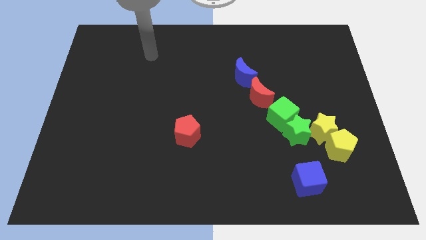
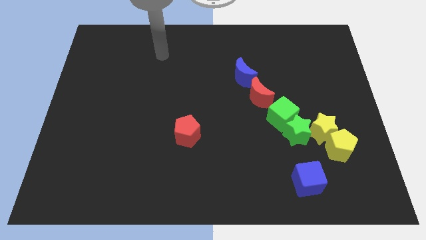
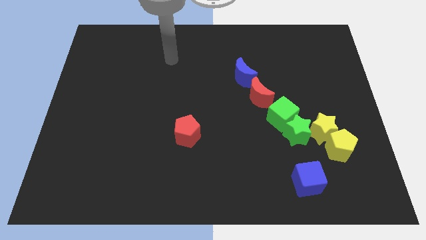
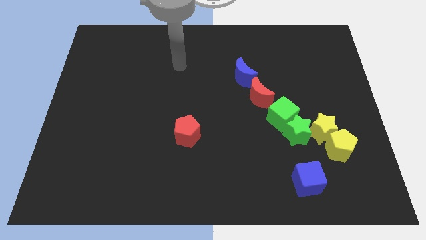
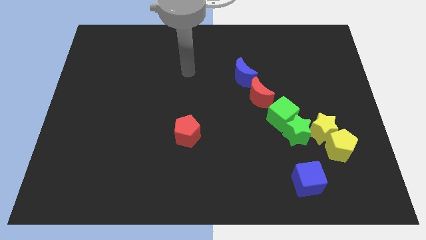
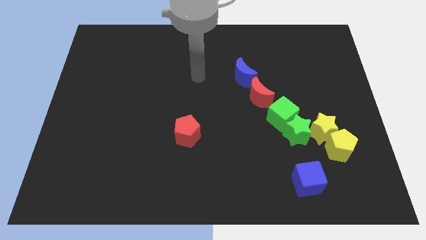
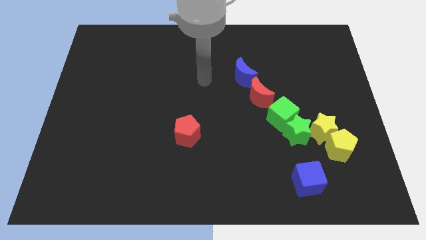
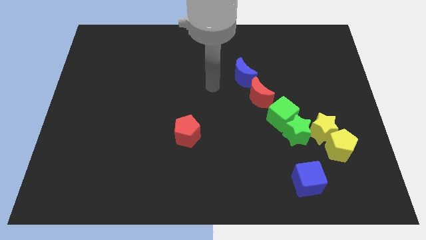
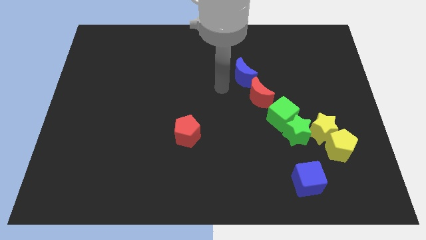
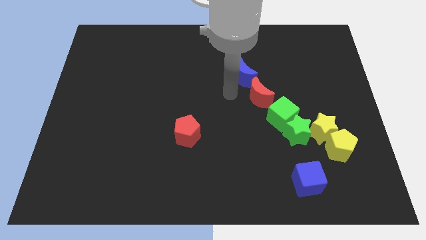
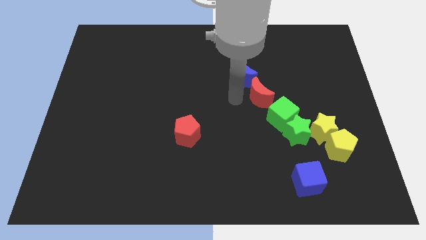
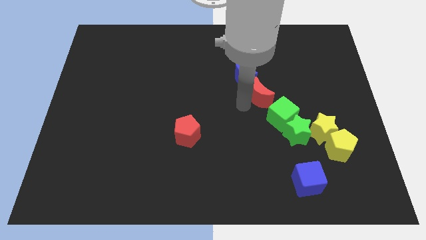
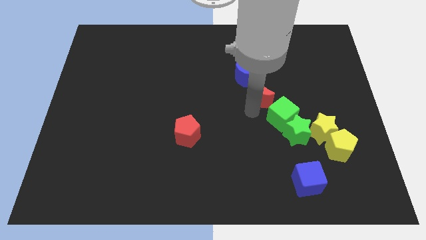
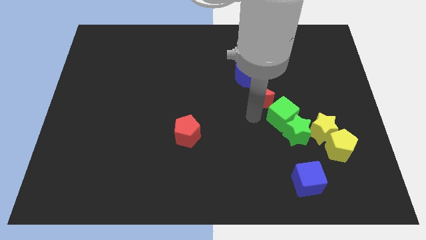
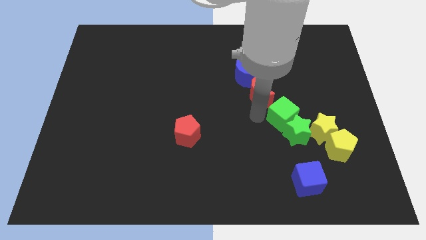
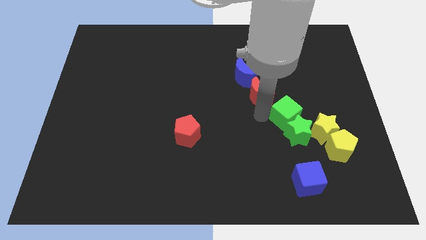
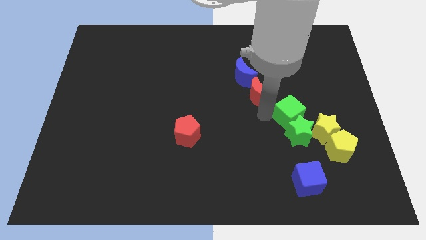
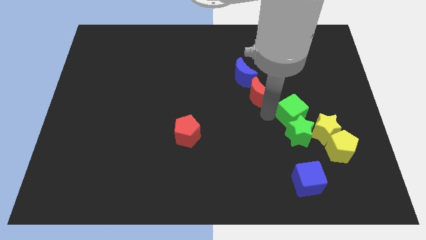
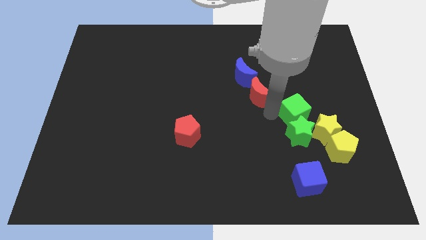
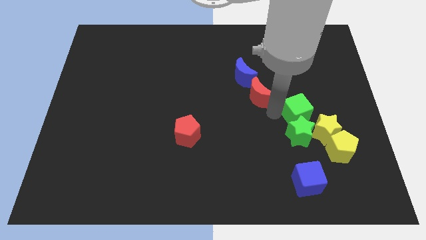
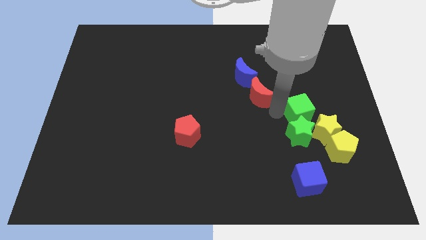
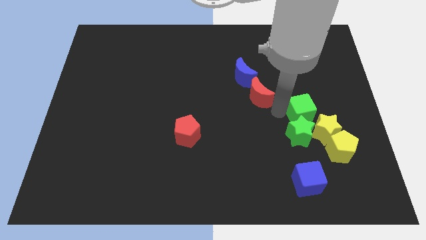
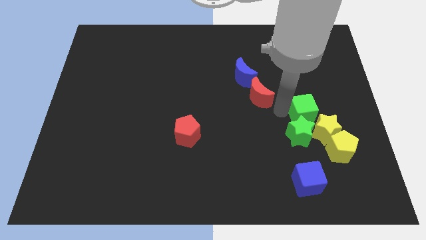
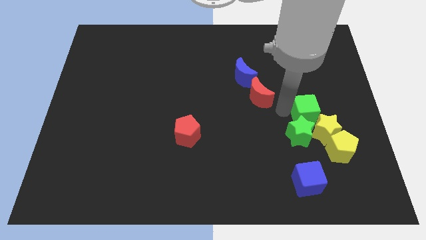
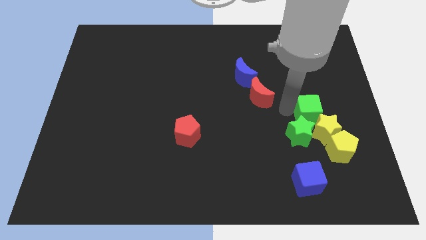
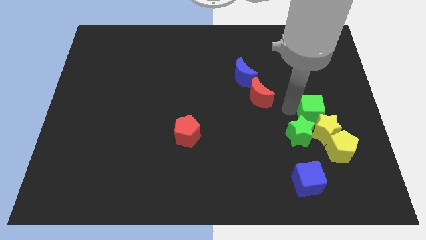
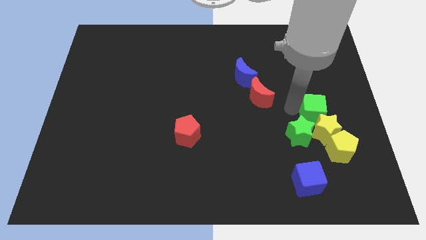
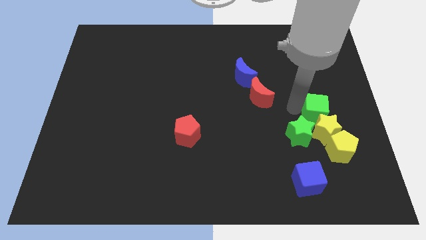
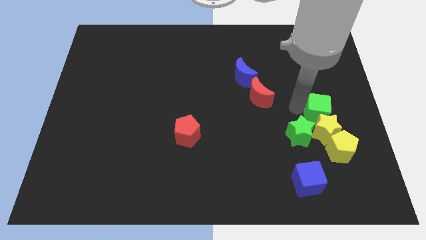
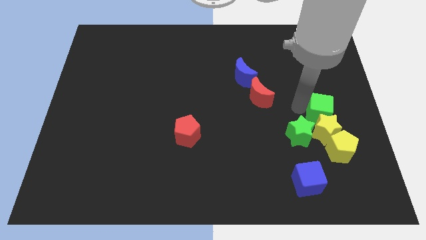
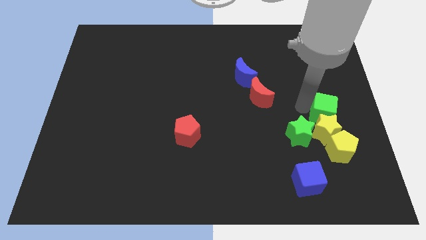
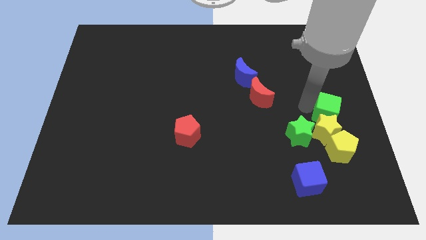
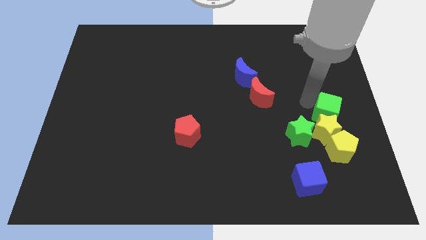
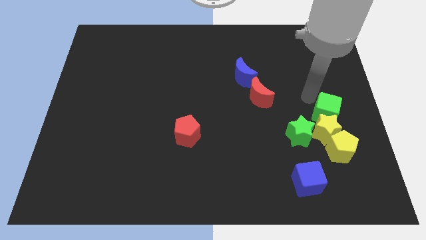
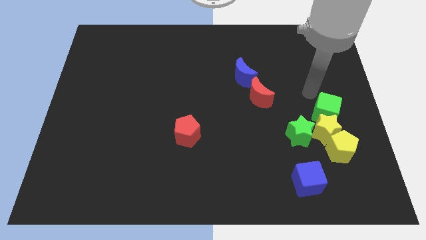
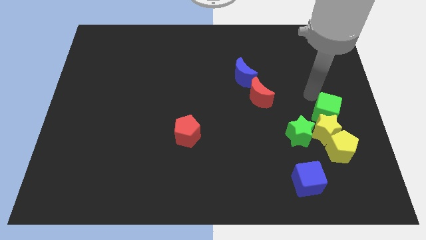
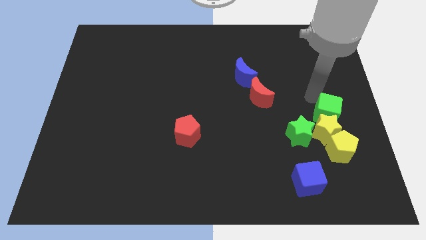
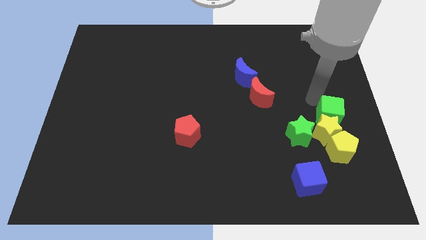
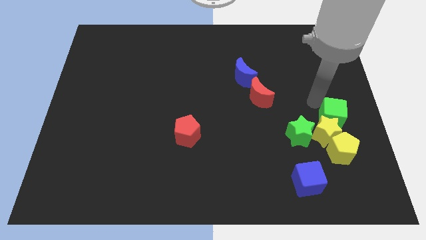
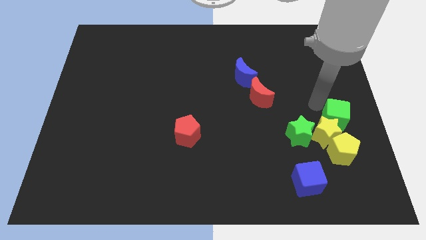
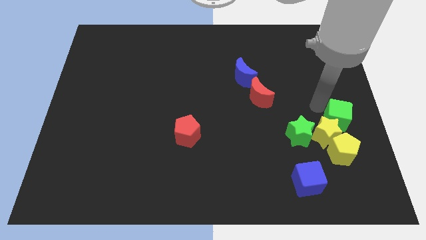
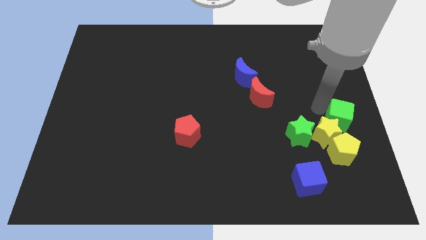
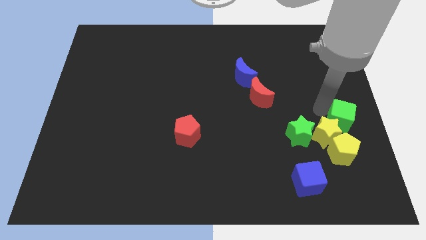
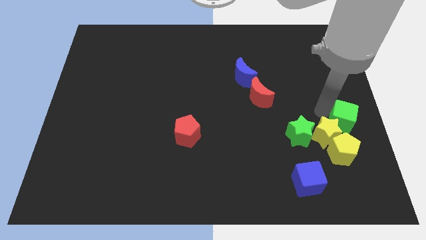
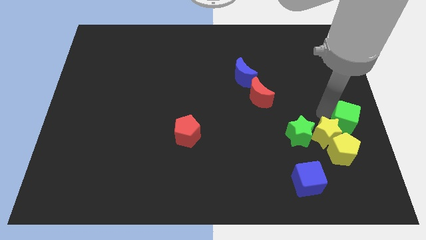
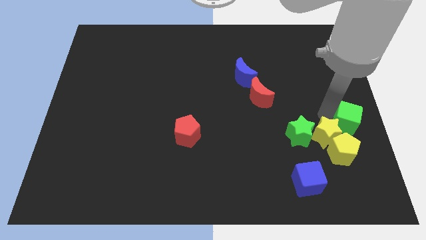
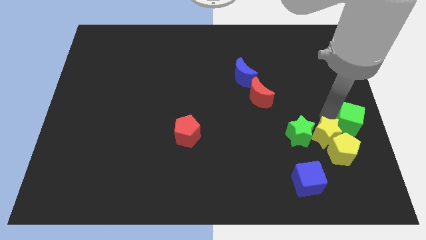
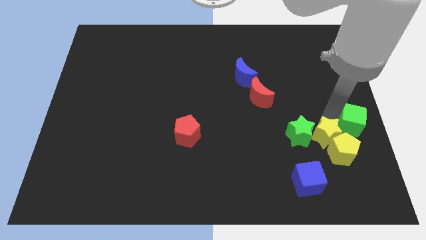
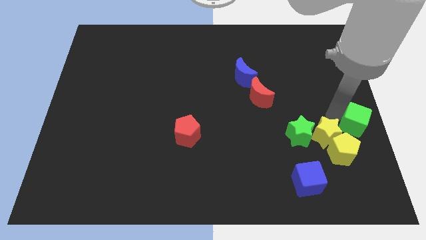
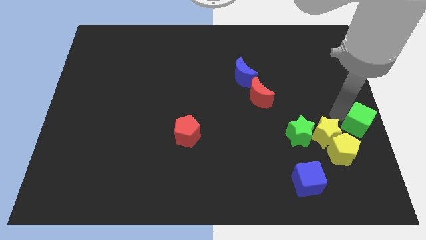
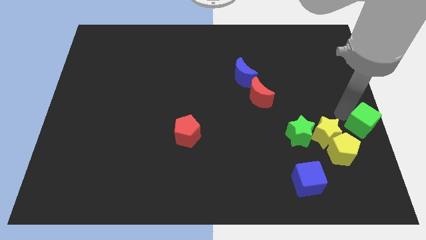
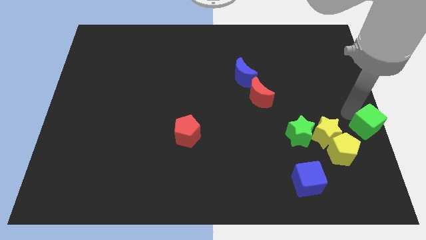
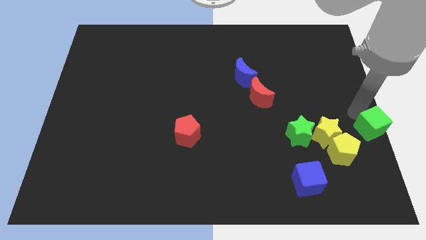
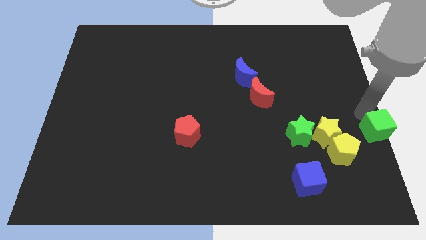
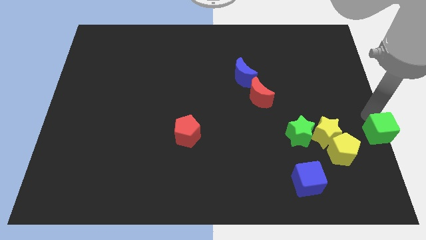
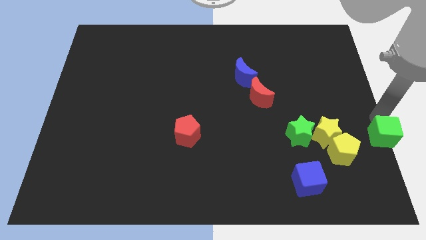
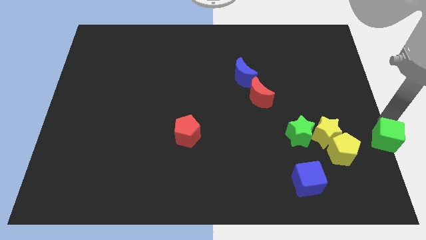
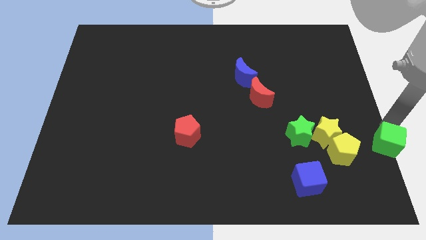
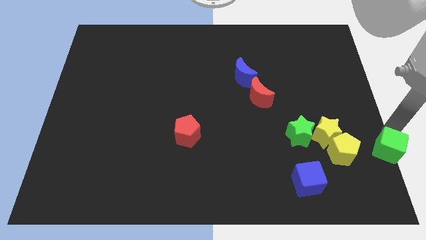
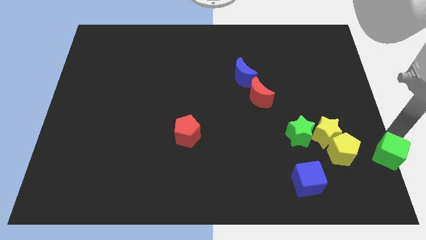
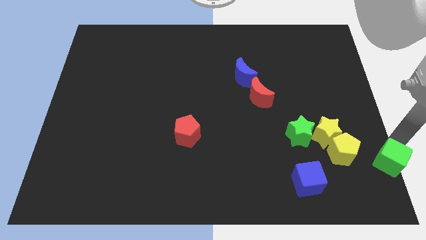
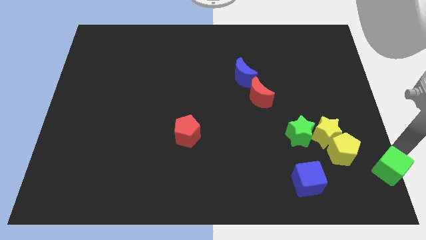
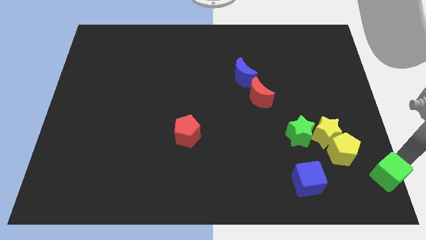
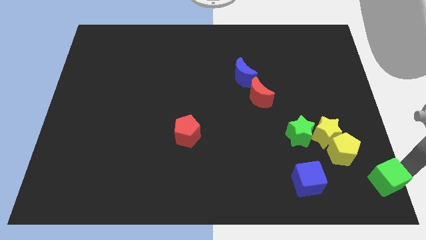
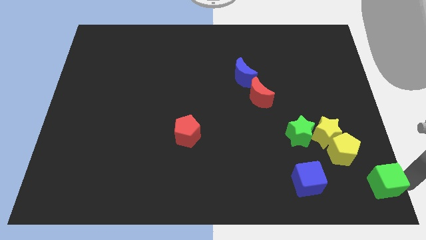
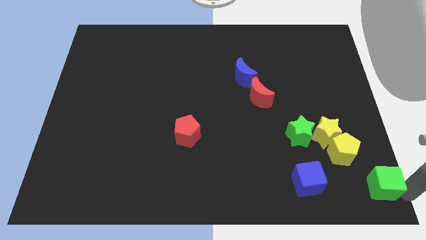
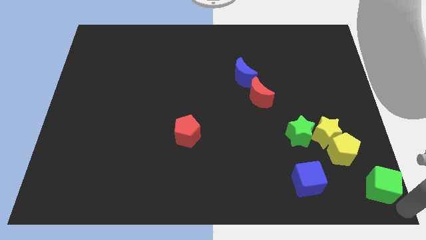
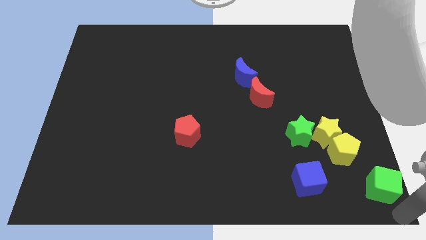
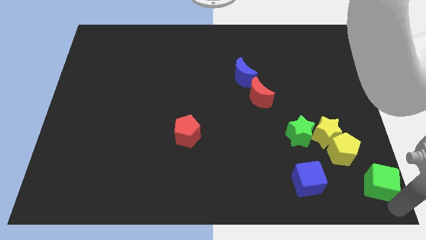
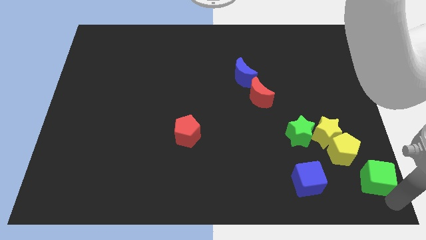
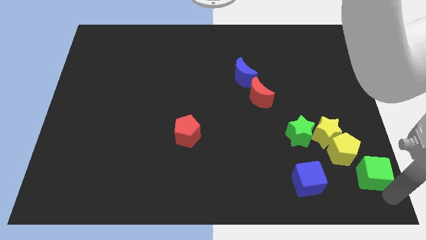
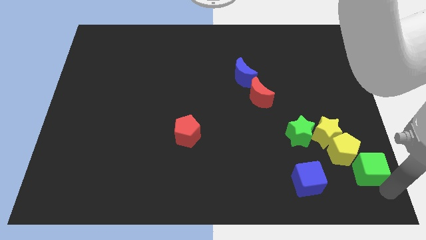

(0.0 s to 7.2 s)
move the green cube to the yellow pentagon
